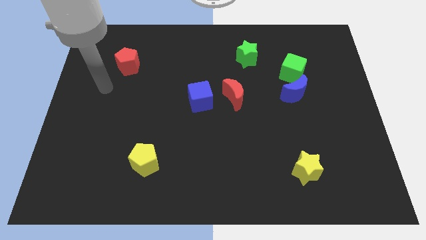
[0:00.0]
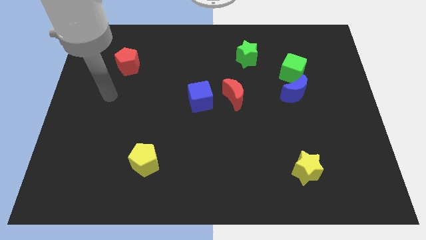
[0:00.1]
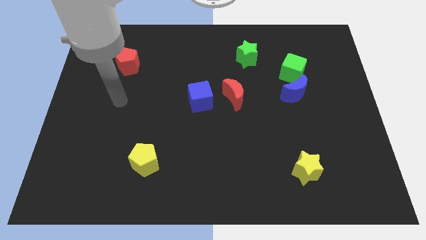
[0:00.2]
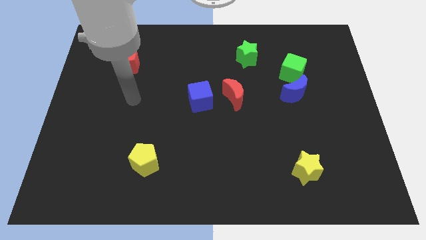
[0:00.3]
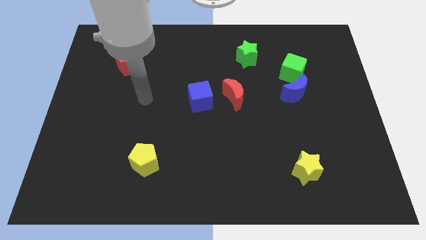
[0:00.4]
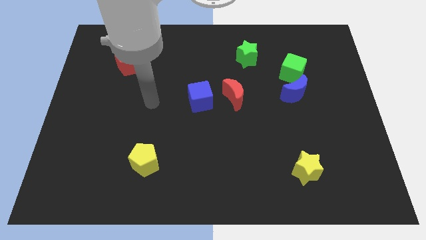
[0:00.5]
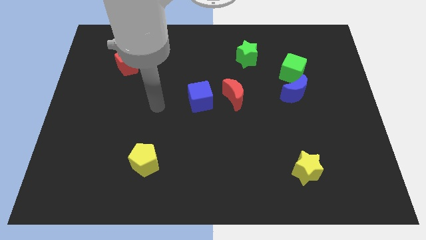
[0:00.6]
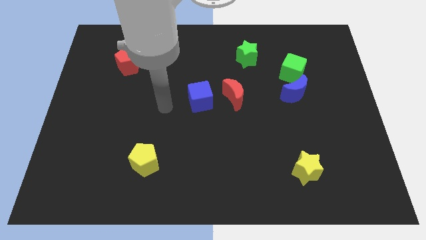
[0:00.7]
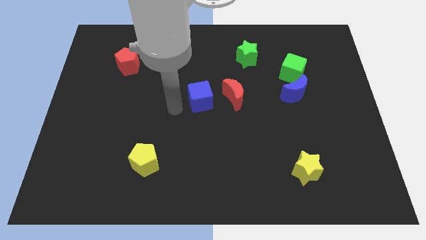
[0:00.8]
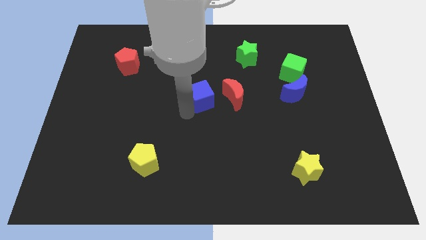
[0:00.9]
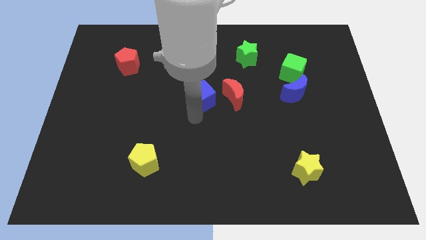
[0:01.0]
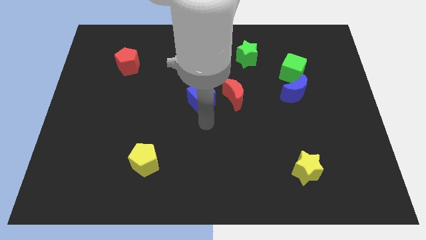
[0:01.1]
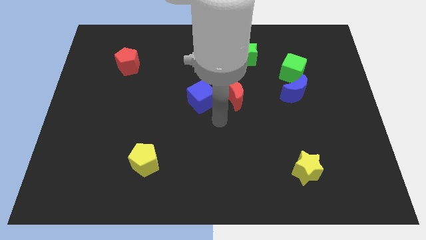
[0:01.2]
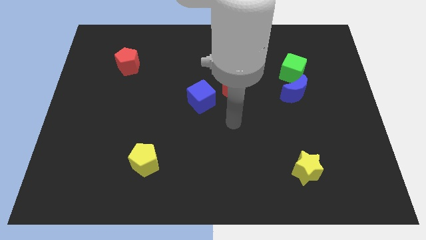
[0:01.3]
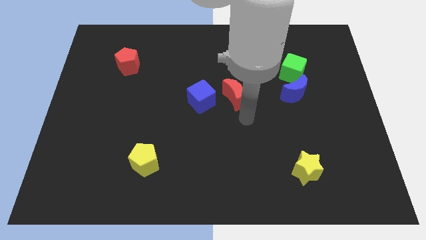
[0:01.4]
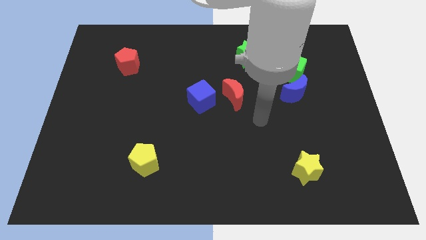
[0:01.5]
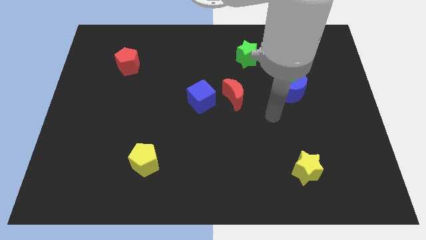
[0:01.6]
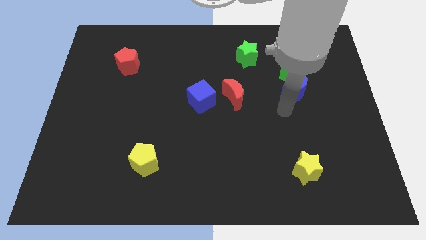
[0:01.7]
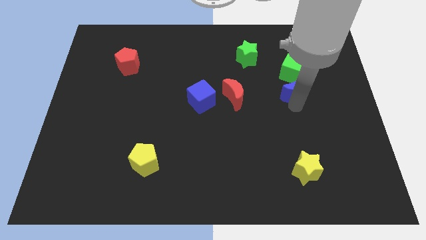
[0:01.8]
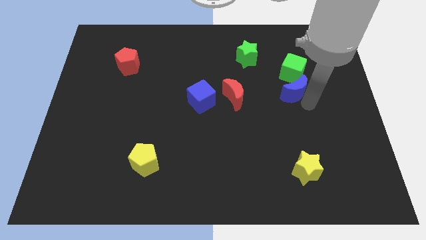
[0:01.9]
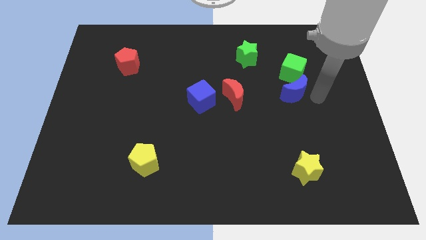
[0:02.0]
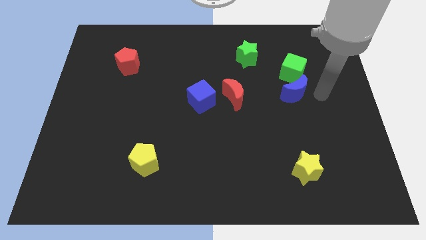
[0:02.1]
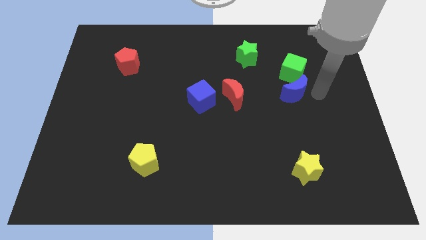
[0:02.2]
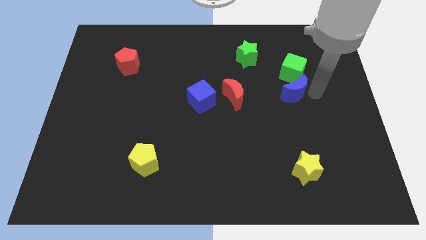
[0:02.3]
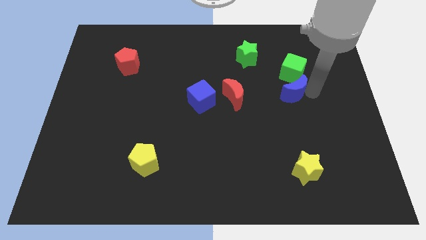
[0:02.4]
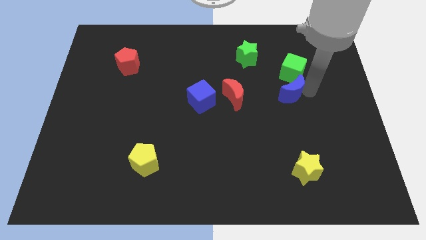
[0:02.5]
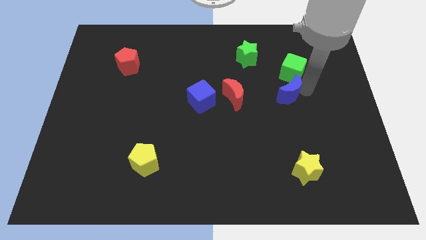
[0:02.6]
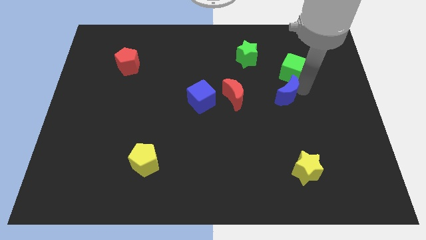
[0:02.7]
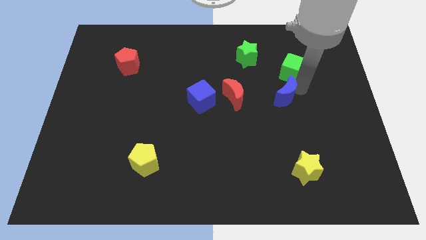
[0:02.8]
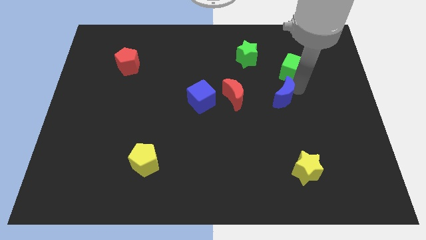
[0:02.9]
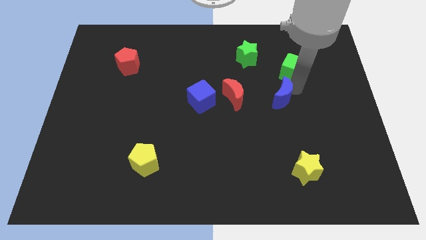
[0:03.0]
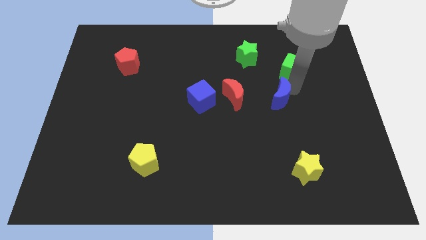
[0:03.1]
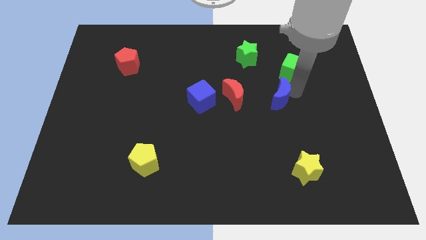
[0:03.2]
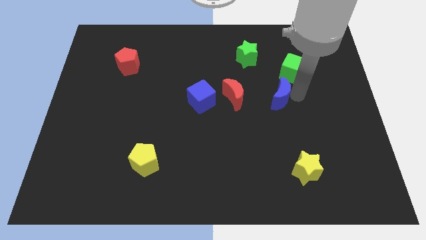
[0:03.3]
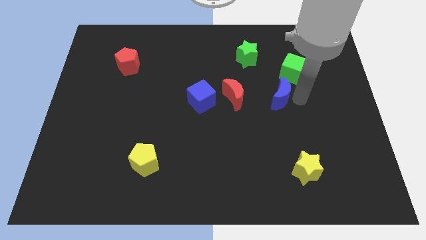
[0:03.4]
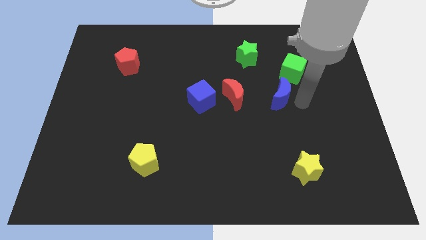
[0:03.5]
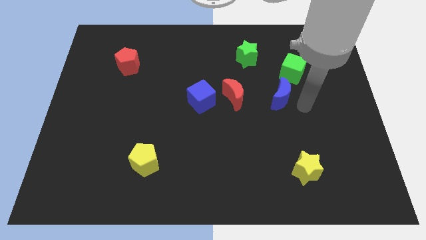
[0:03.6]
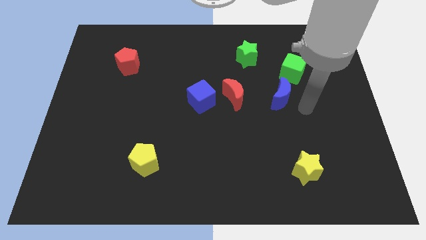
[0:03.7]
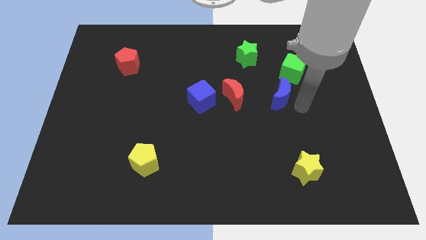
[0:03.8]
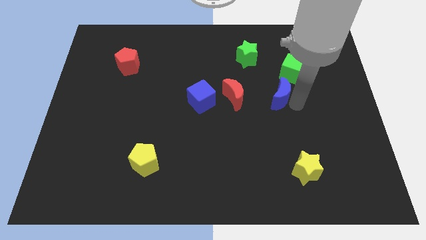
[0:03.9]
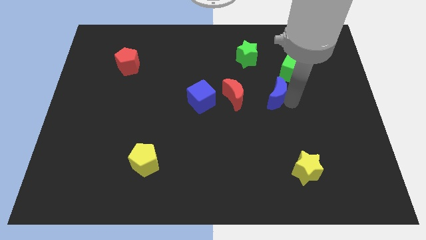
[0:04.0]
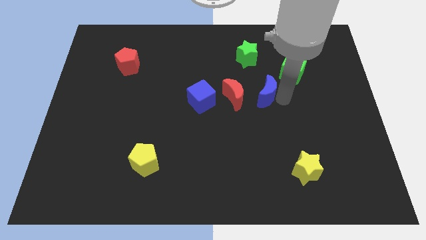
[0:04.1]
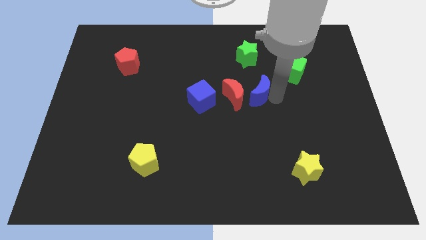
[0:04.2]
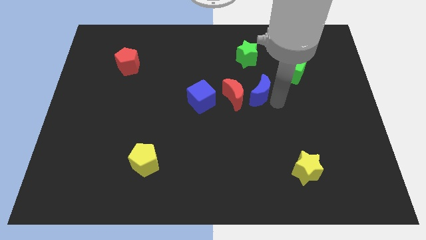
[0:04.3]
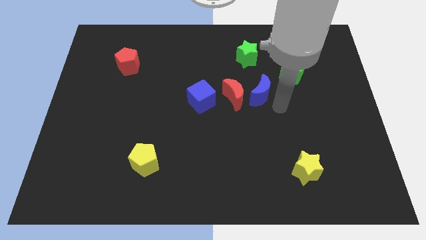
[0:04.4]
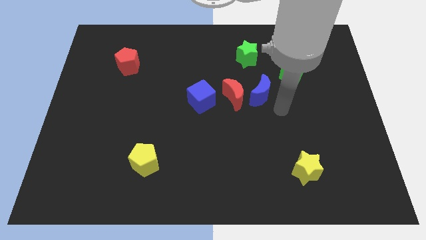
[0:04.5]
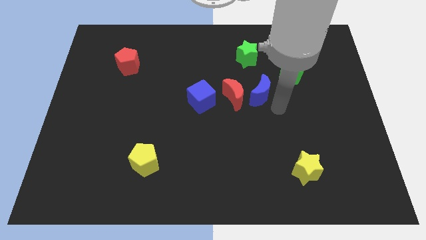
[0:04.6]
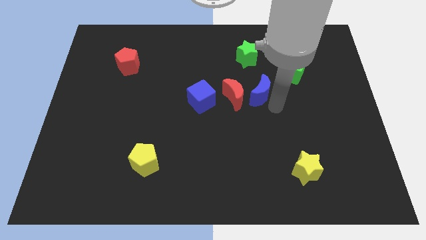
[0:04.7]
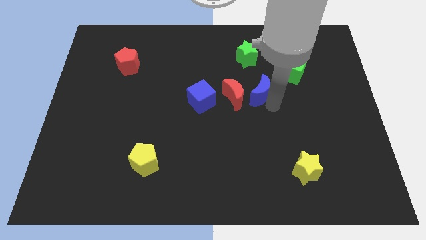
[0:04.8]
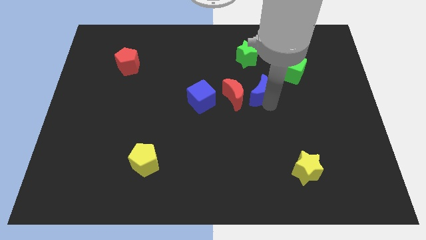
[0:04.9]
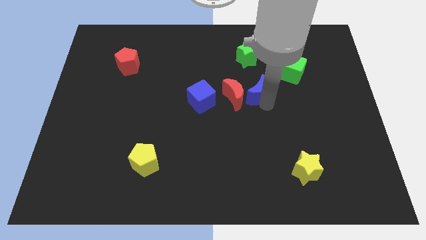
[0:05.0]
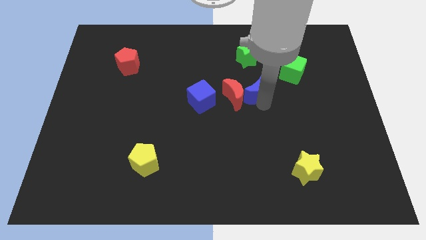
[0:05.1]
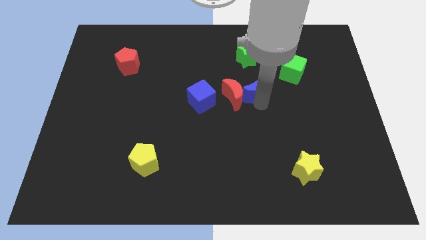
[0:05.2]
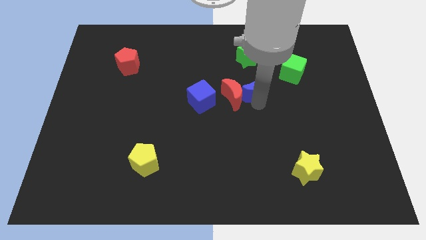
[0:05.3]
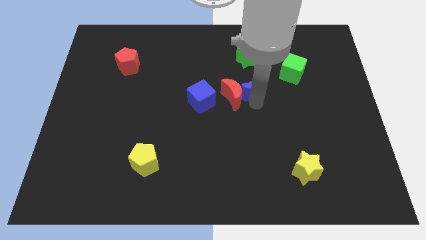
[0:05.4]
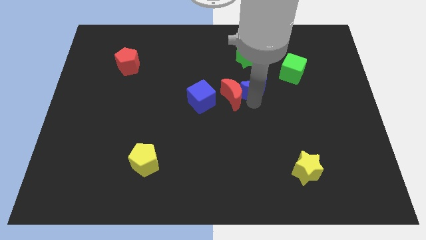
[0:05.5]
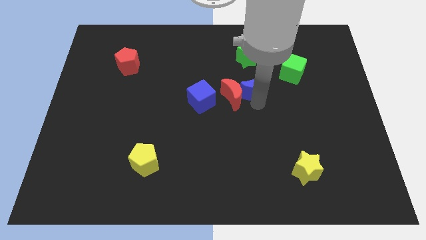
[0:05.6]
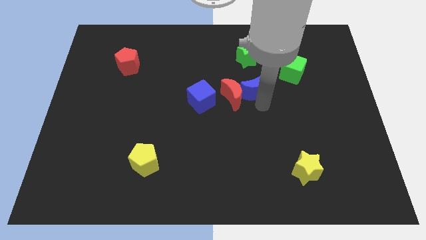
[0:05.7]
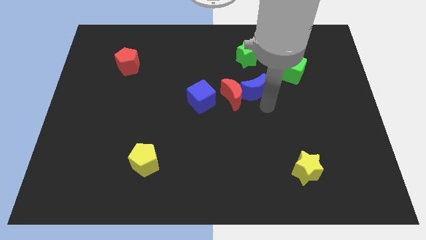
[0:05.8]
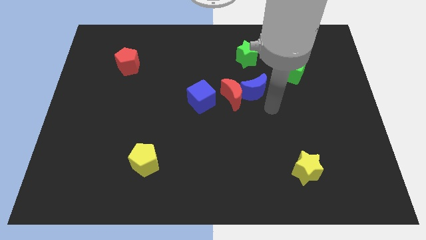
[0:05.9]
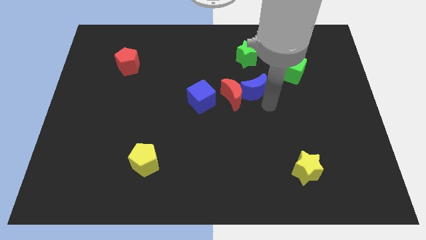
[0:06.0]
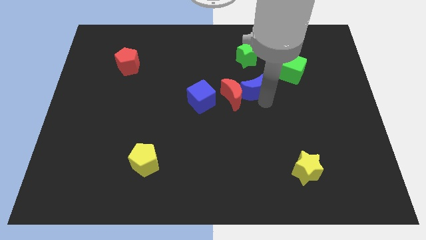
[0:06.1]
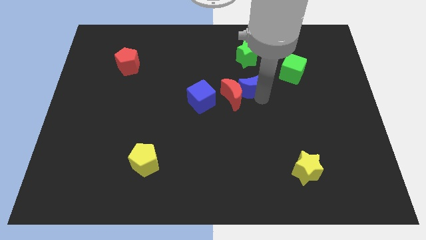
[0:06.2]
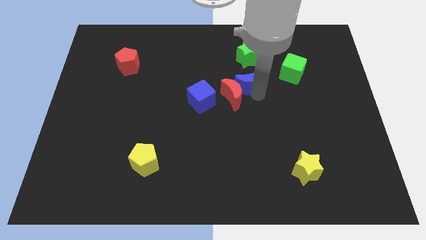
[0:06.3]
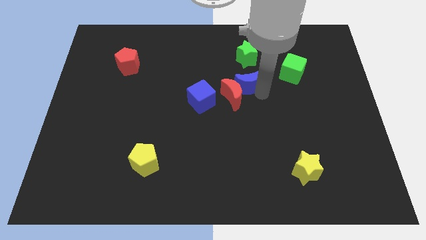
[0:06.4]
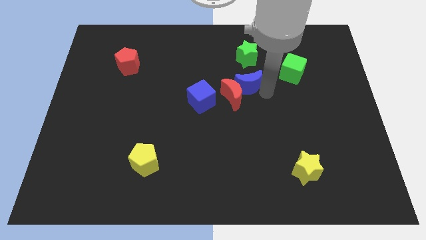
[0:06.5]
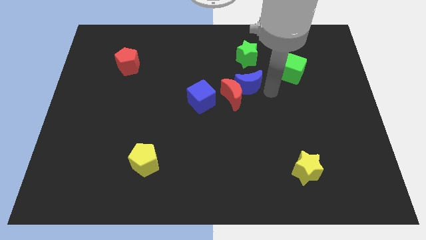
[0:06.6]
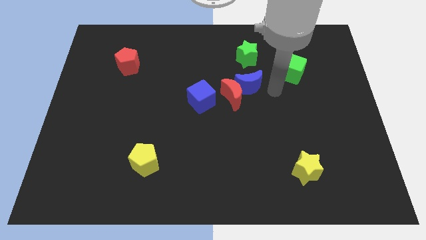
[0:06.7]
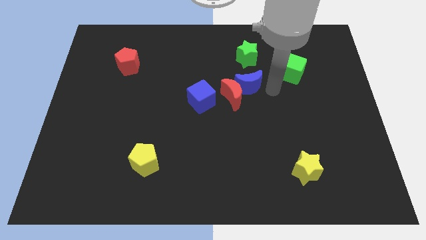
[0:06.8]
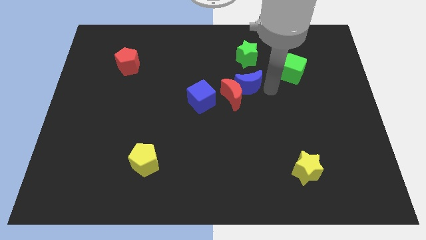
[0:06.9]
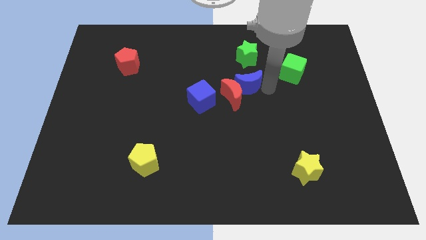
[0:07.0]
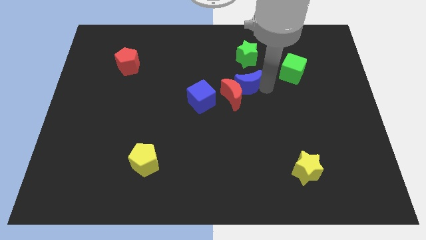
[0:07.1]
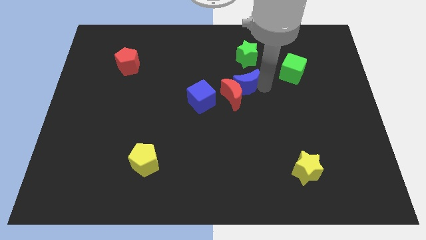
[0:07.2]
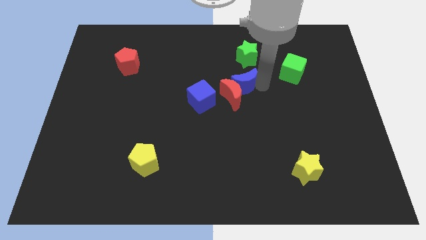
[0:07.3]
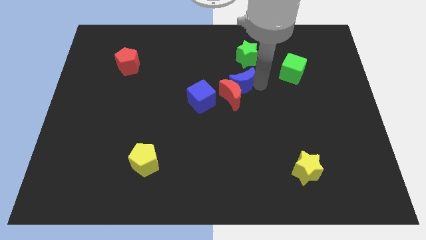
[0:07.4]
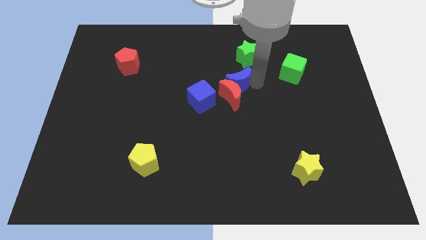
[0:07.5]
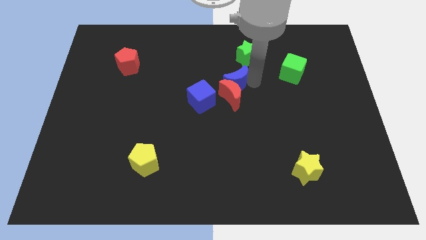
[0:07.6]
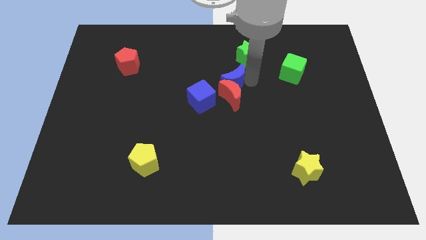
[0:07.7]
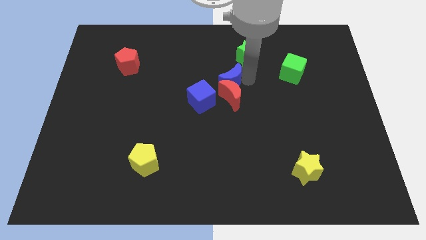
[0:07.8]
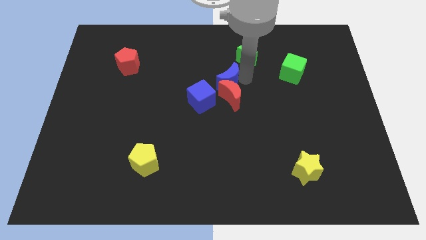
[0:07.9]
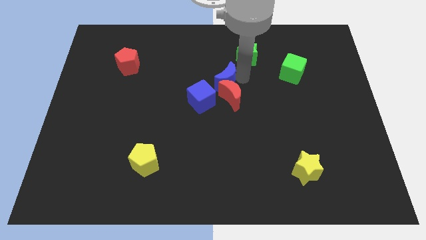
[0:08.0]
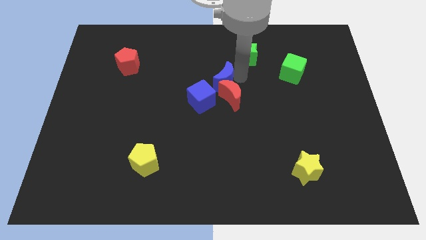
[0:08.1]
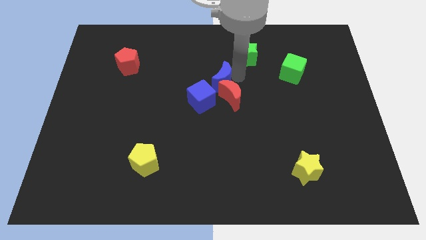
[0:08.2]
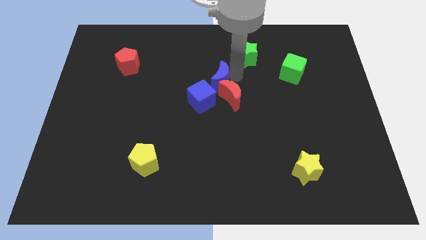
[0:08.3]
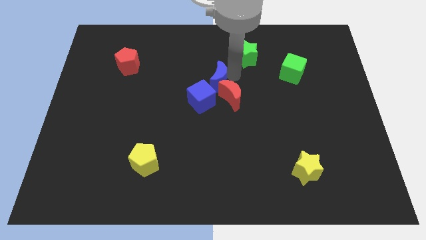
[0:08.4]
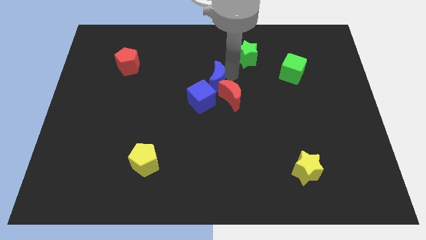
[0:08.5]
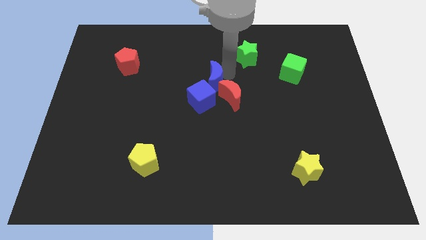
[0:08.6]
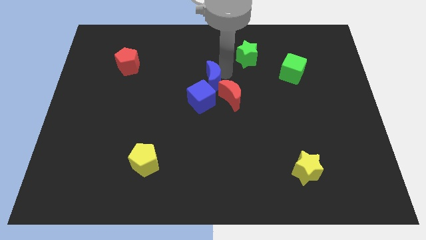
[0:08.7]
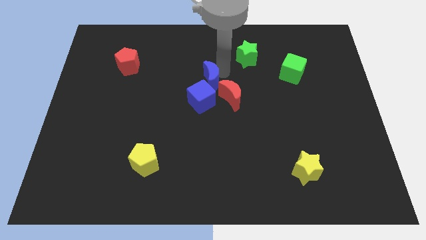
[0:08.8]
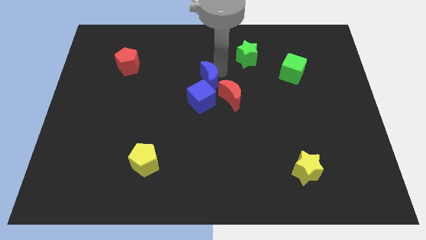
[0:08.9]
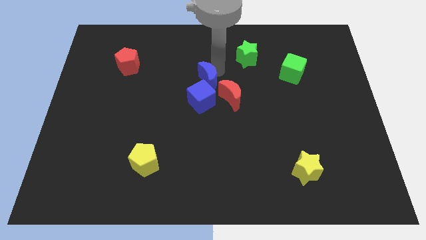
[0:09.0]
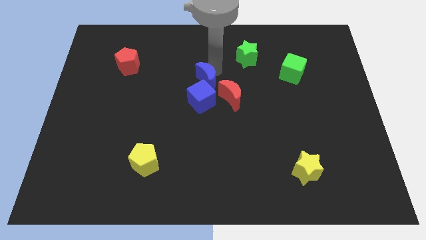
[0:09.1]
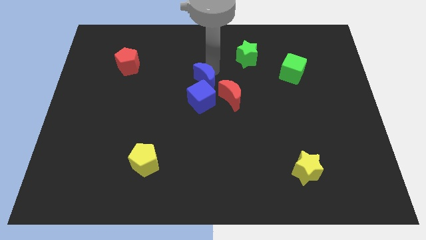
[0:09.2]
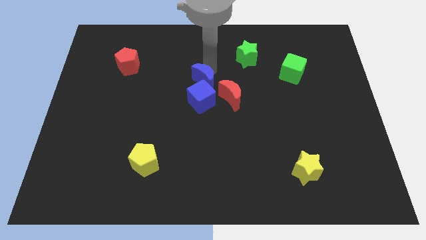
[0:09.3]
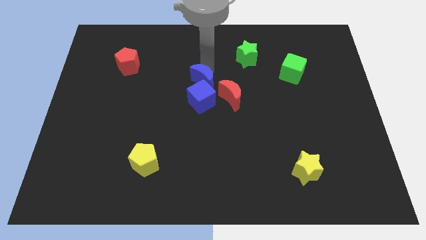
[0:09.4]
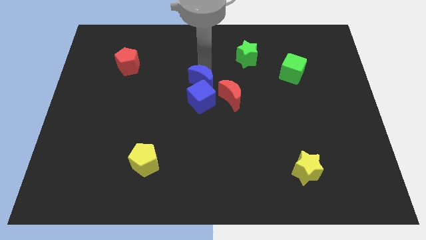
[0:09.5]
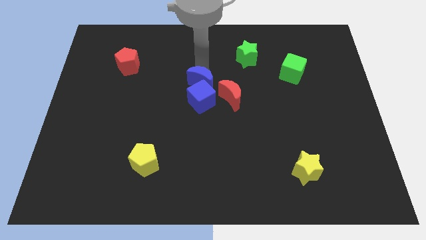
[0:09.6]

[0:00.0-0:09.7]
push the blue moon just left of the red moon
